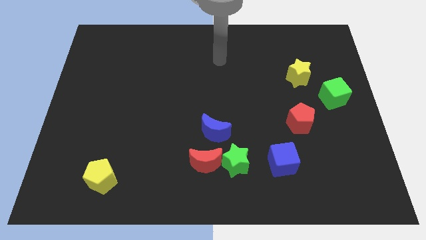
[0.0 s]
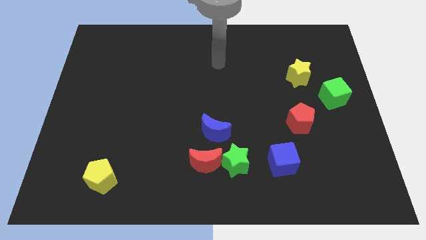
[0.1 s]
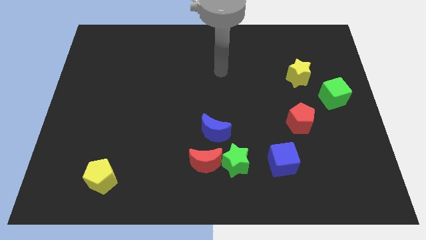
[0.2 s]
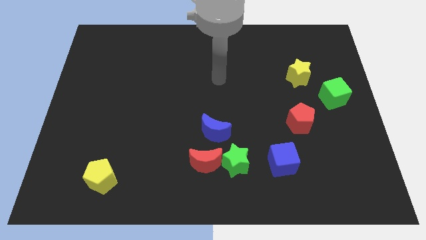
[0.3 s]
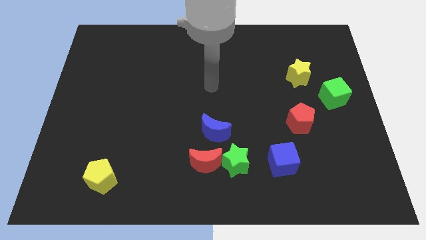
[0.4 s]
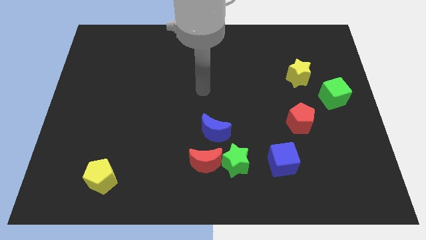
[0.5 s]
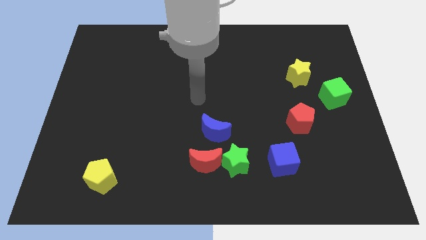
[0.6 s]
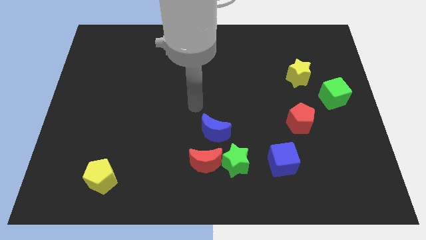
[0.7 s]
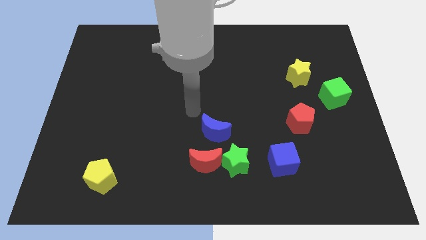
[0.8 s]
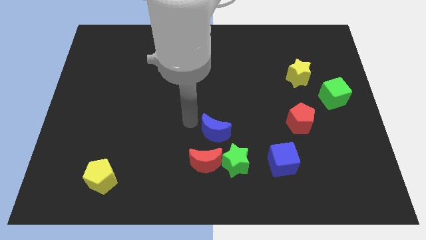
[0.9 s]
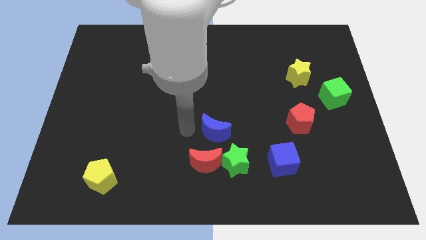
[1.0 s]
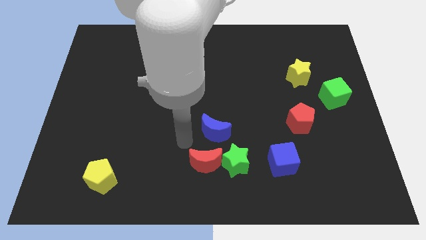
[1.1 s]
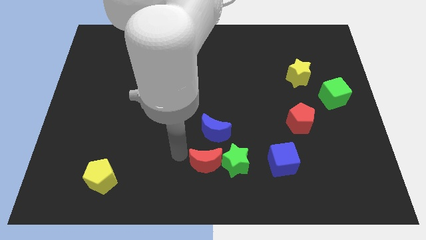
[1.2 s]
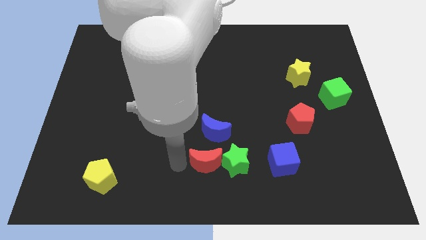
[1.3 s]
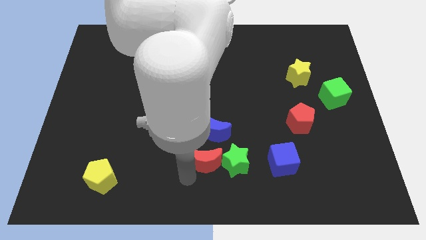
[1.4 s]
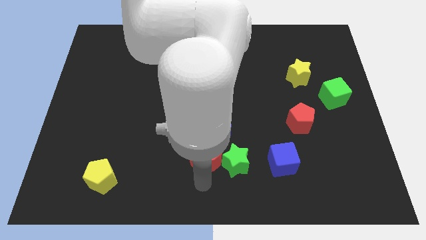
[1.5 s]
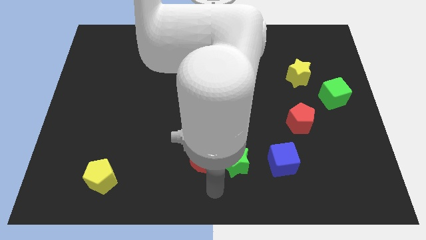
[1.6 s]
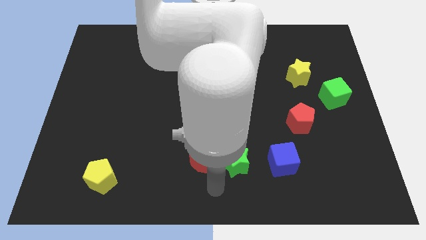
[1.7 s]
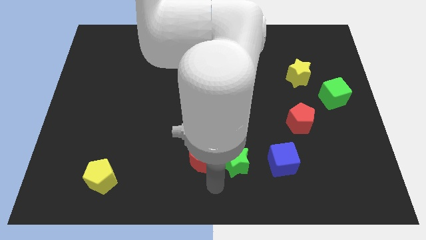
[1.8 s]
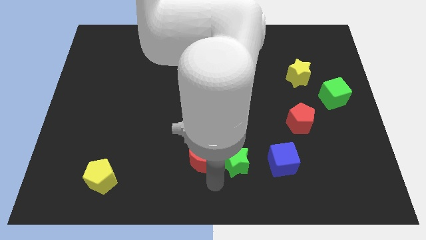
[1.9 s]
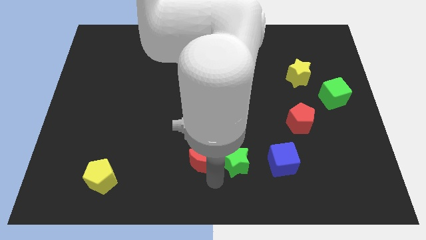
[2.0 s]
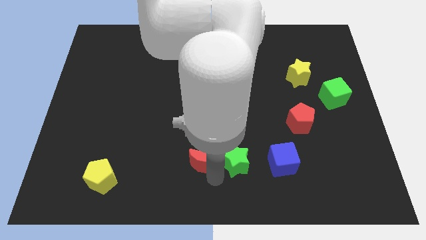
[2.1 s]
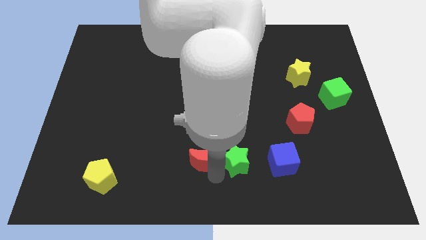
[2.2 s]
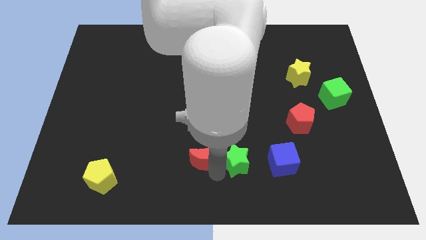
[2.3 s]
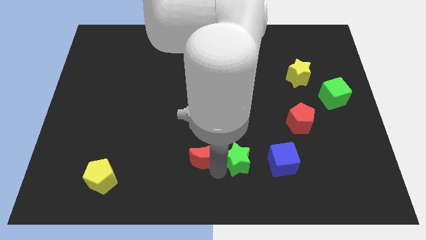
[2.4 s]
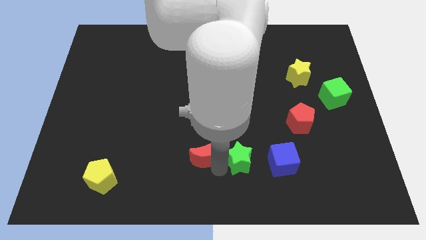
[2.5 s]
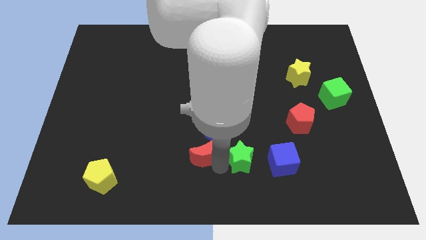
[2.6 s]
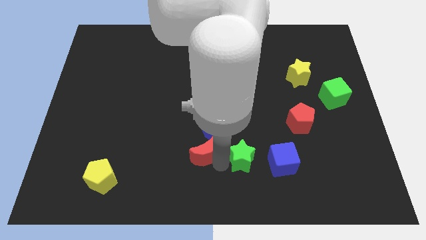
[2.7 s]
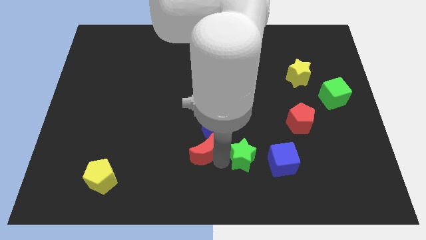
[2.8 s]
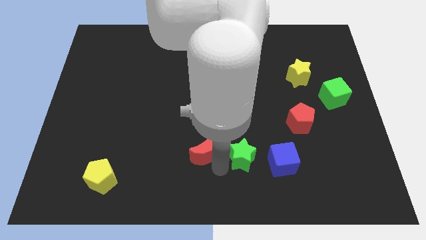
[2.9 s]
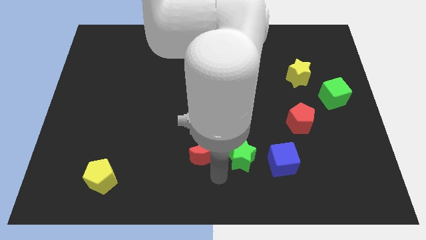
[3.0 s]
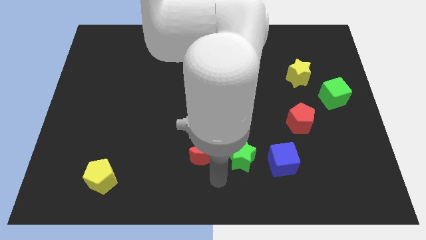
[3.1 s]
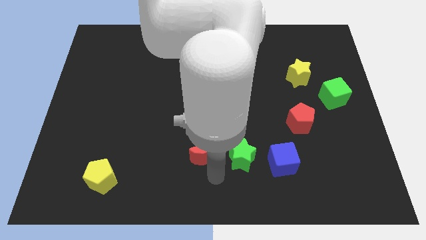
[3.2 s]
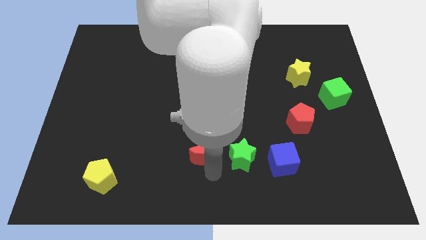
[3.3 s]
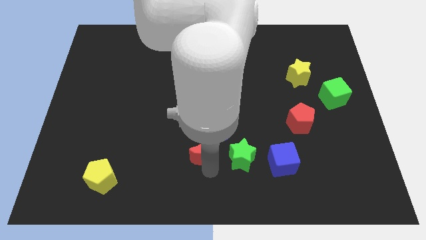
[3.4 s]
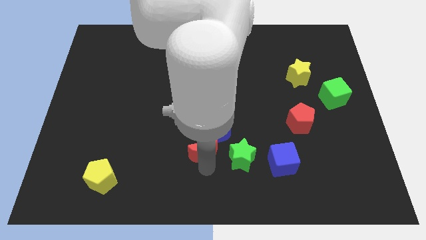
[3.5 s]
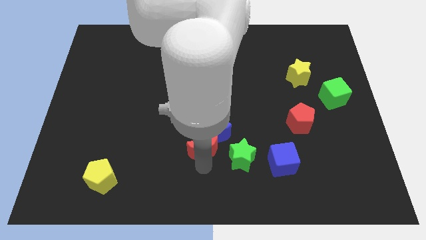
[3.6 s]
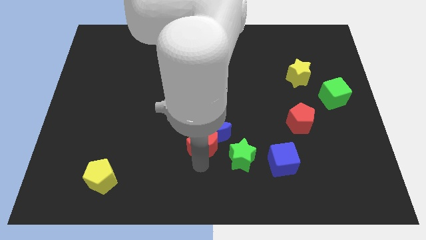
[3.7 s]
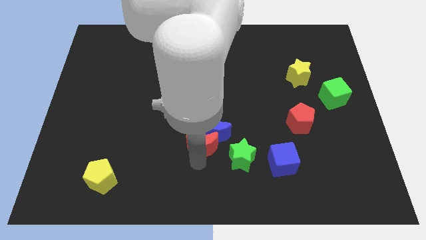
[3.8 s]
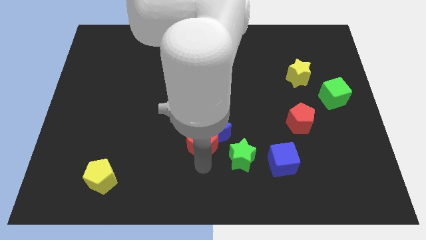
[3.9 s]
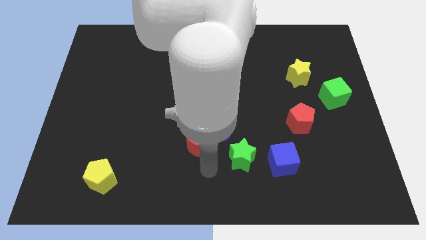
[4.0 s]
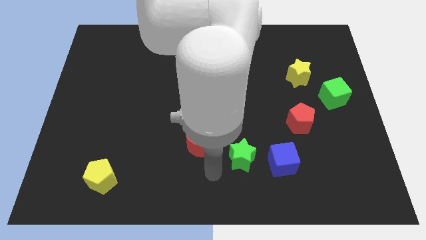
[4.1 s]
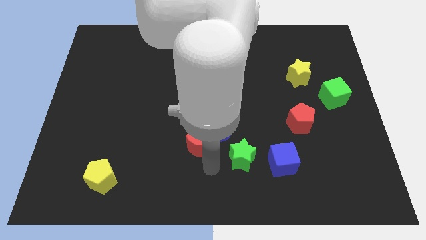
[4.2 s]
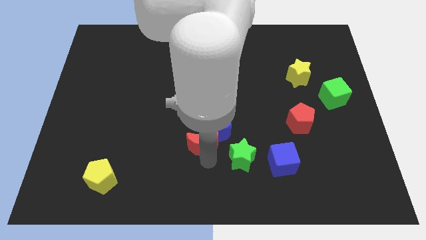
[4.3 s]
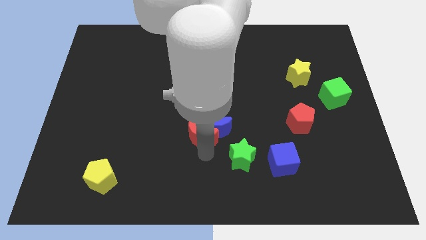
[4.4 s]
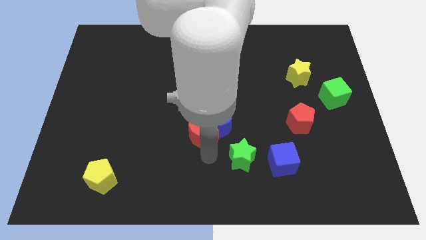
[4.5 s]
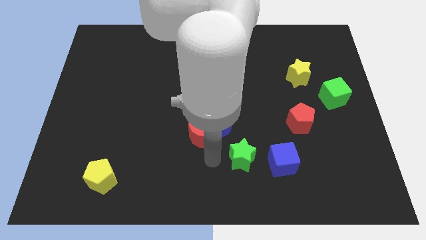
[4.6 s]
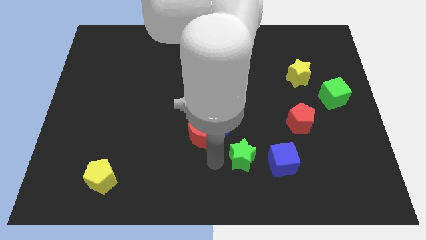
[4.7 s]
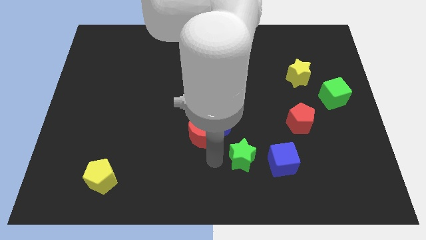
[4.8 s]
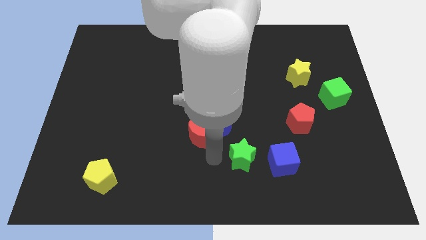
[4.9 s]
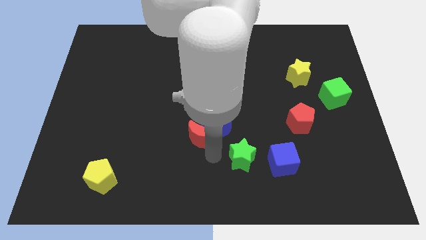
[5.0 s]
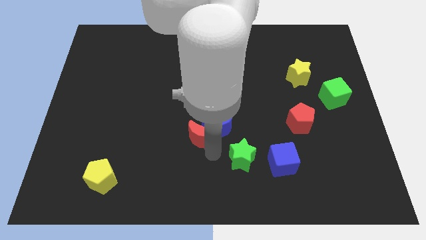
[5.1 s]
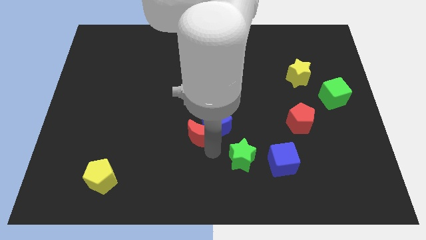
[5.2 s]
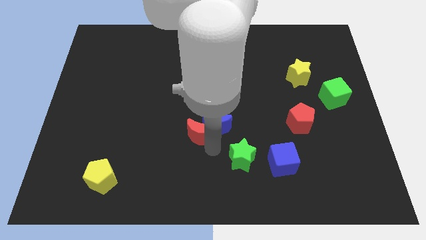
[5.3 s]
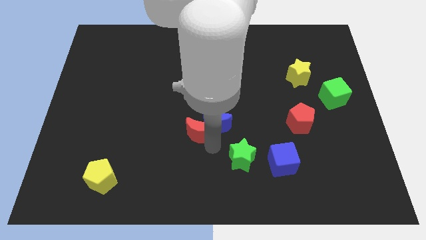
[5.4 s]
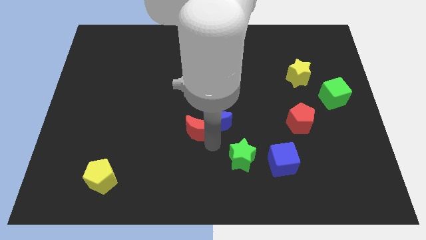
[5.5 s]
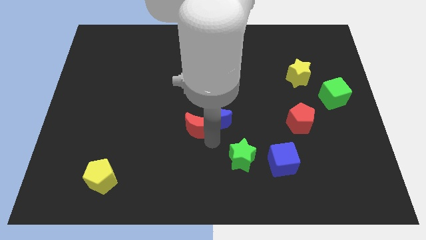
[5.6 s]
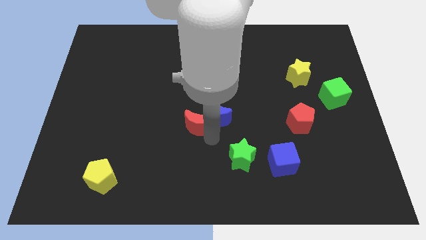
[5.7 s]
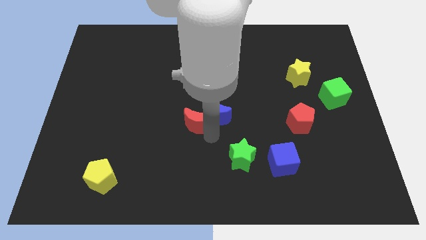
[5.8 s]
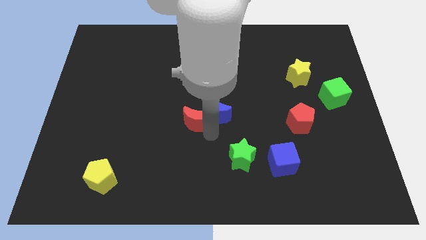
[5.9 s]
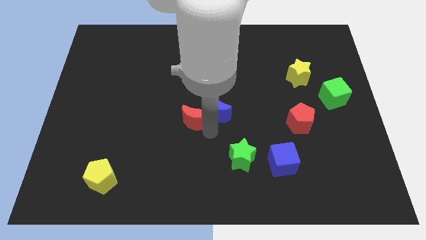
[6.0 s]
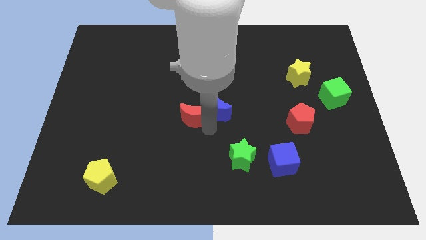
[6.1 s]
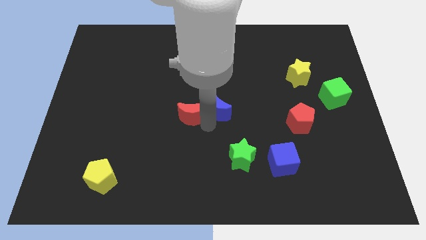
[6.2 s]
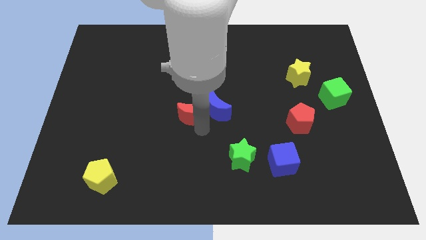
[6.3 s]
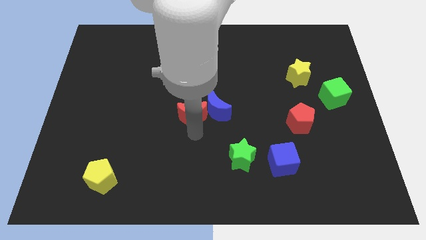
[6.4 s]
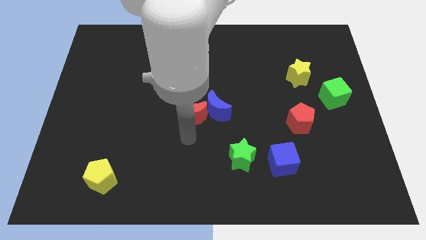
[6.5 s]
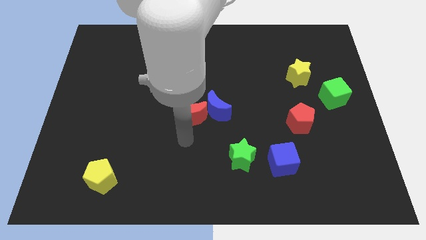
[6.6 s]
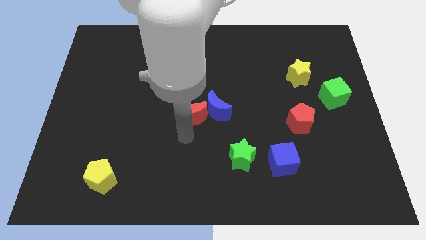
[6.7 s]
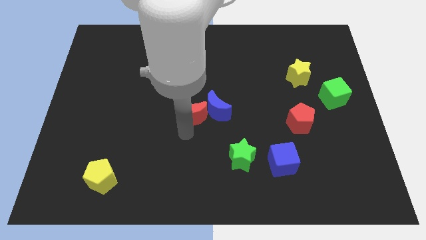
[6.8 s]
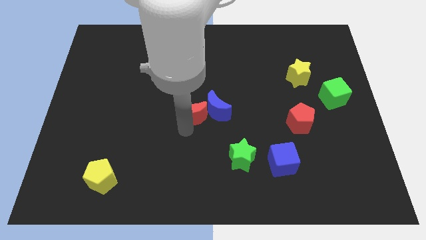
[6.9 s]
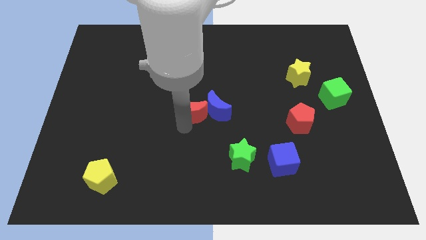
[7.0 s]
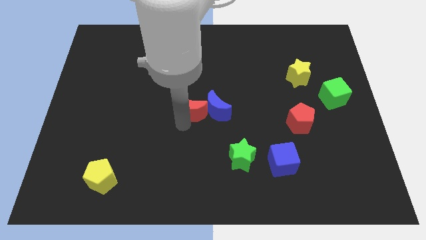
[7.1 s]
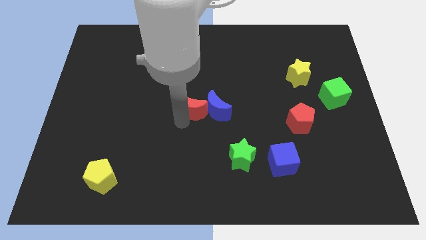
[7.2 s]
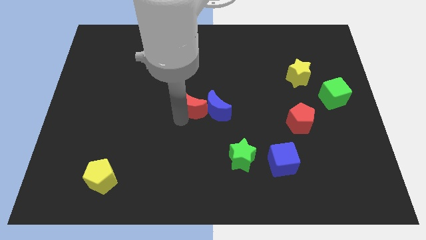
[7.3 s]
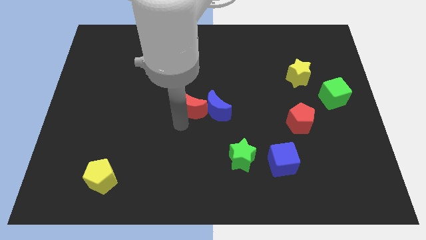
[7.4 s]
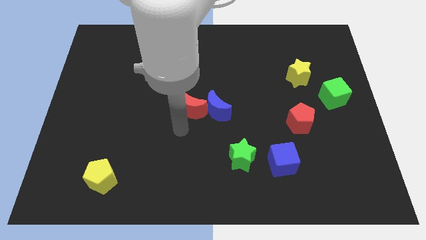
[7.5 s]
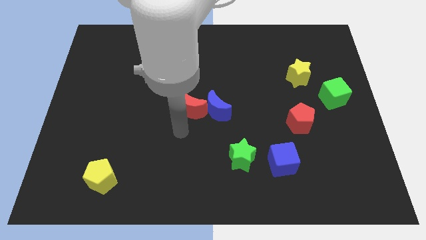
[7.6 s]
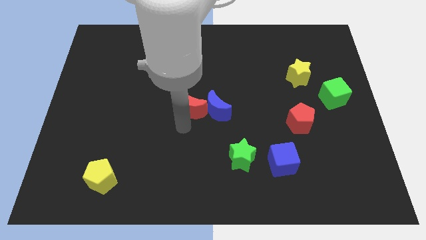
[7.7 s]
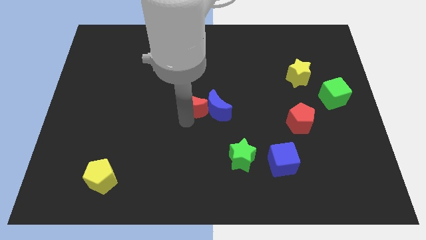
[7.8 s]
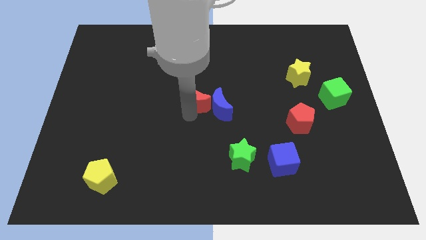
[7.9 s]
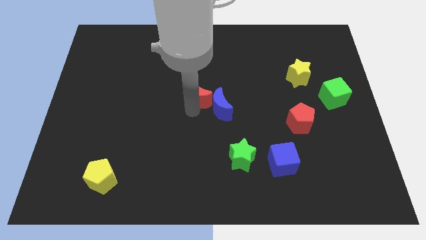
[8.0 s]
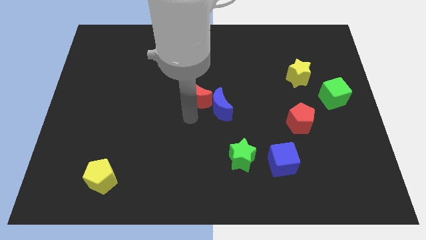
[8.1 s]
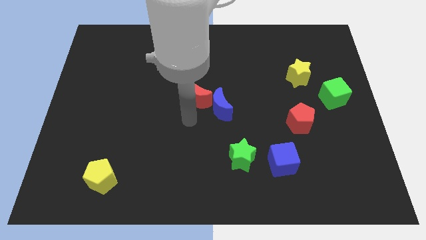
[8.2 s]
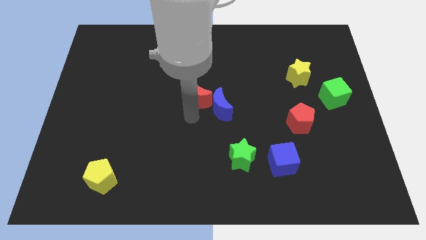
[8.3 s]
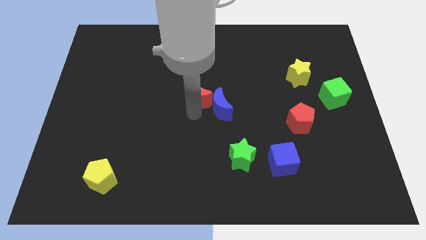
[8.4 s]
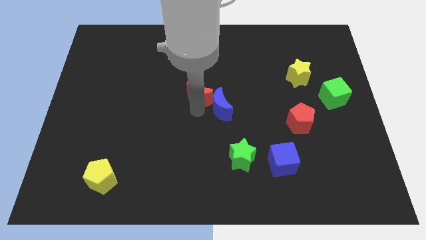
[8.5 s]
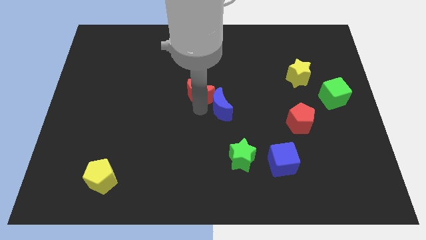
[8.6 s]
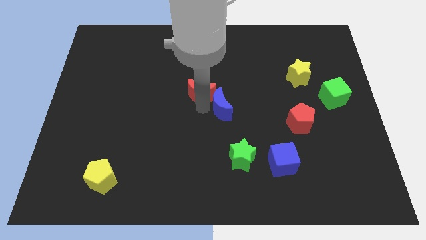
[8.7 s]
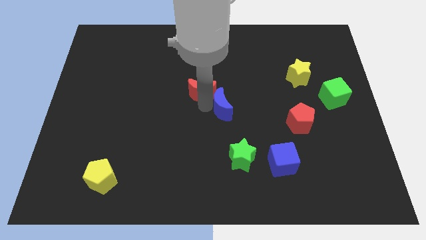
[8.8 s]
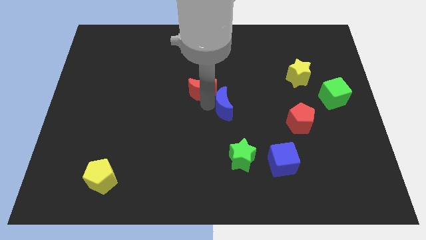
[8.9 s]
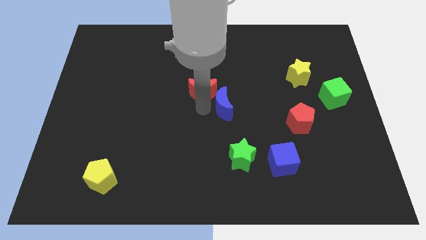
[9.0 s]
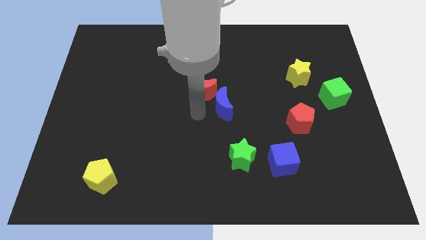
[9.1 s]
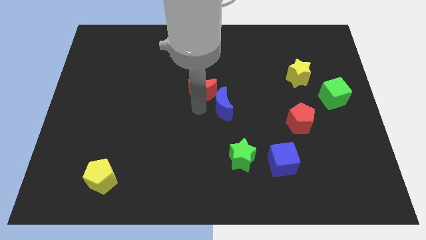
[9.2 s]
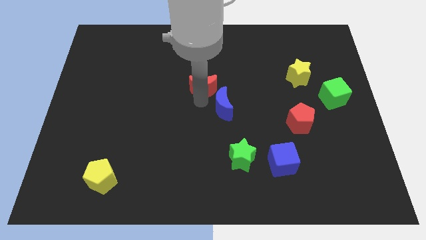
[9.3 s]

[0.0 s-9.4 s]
move the red moon upwards
